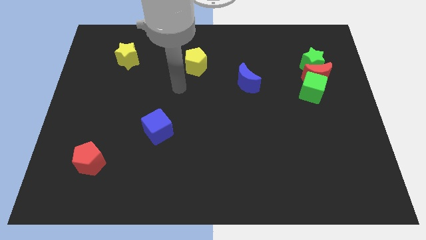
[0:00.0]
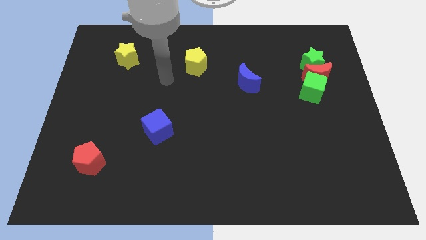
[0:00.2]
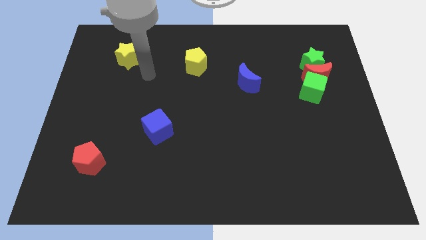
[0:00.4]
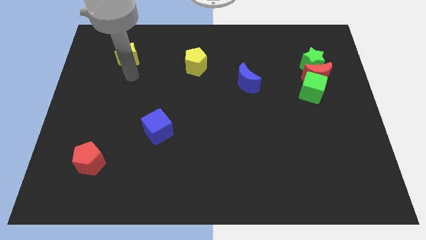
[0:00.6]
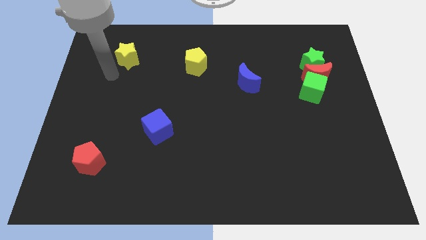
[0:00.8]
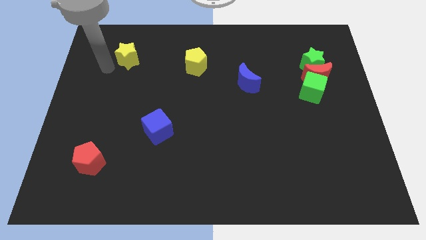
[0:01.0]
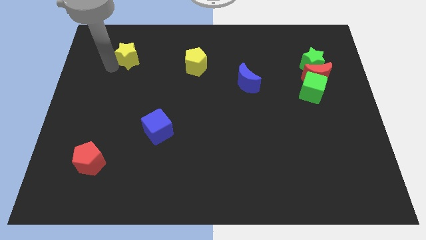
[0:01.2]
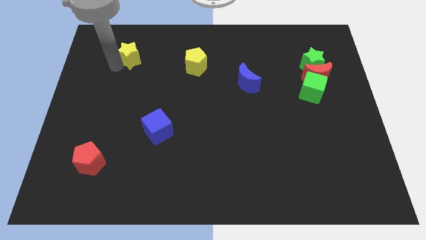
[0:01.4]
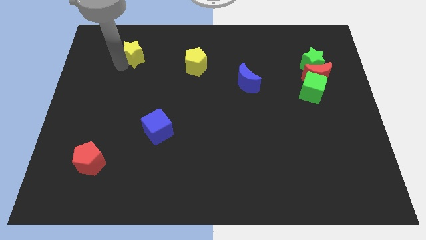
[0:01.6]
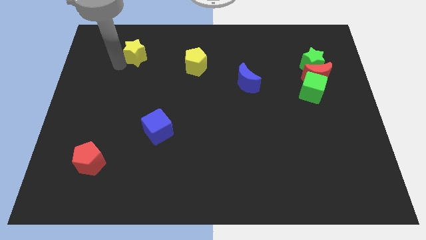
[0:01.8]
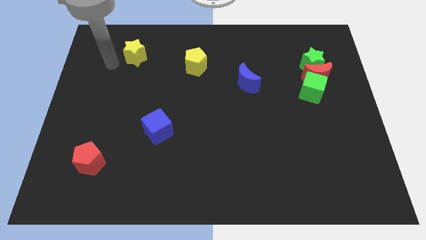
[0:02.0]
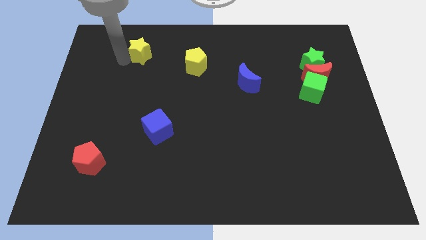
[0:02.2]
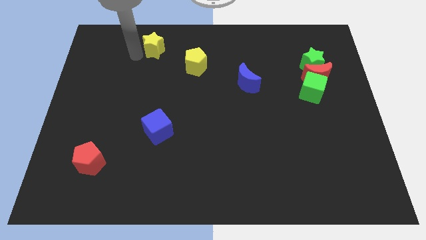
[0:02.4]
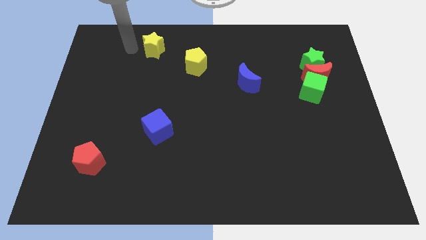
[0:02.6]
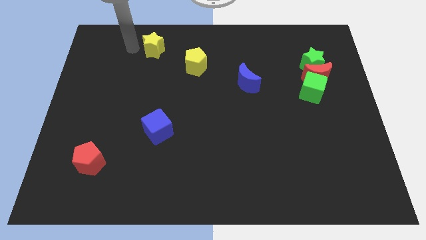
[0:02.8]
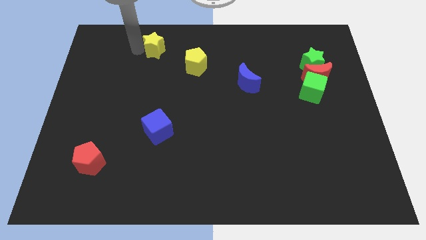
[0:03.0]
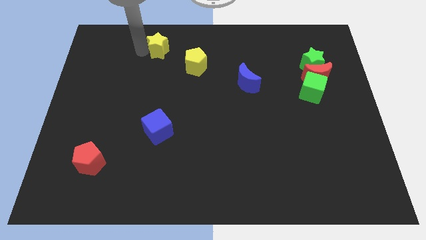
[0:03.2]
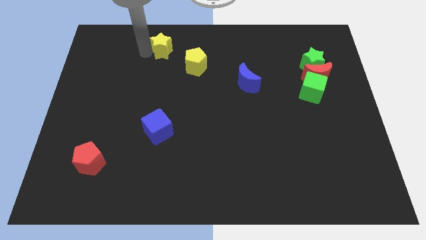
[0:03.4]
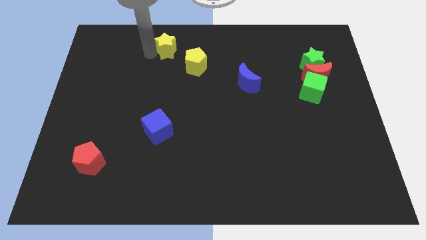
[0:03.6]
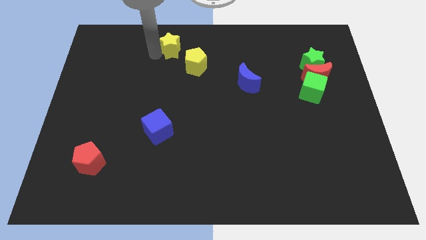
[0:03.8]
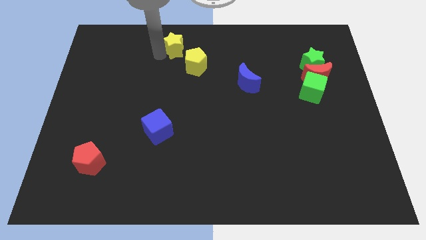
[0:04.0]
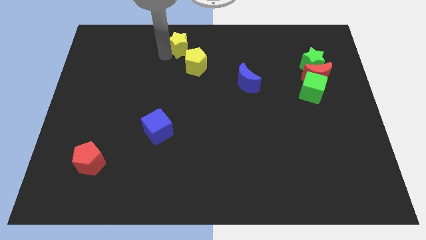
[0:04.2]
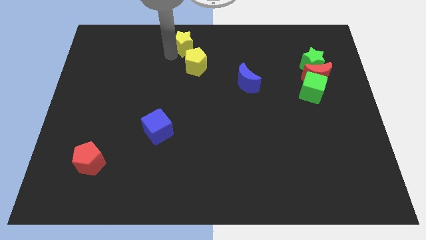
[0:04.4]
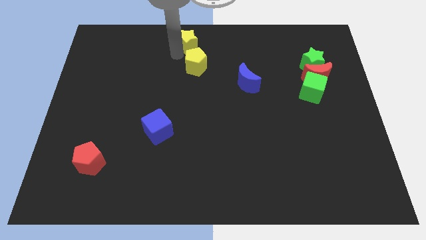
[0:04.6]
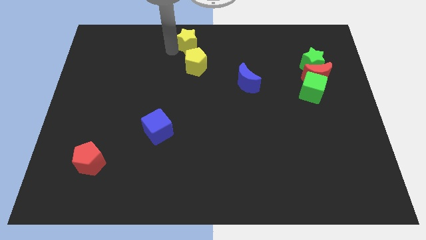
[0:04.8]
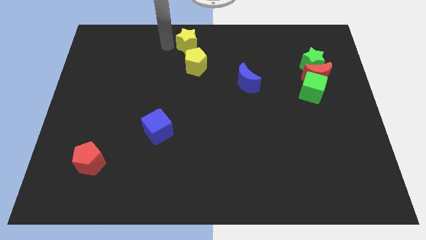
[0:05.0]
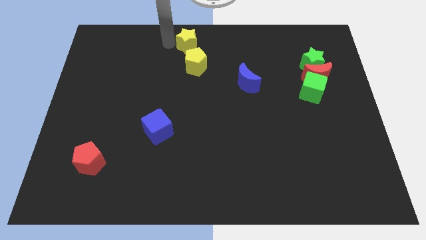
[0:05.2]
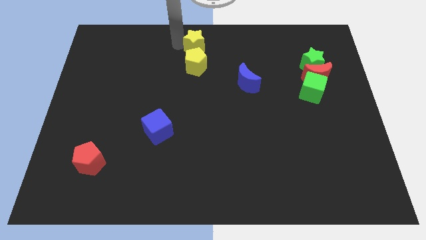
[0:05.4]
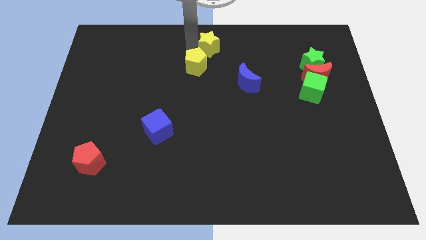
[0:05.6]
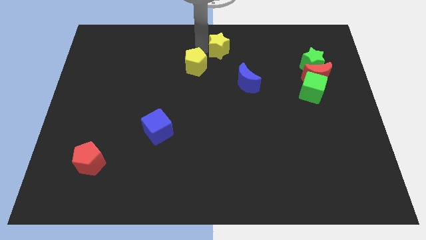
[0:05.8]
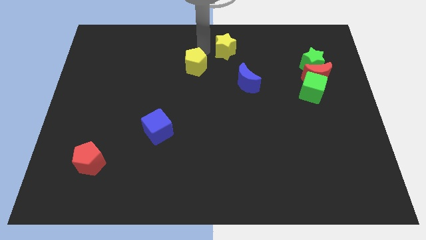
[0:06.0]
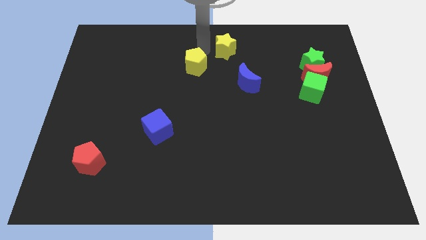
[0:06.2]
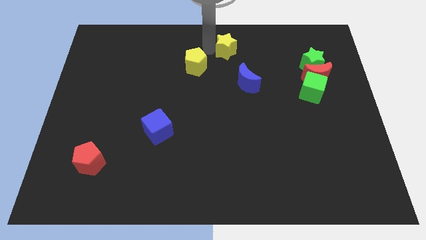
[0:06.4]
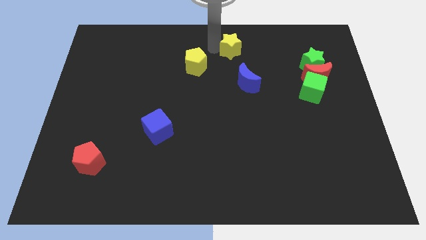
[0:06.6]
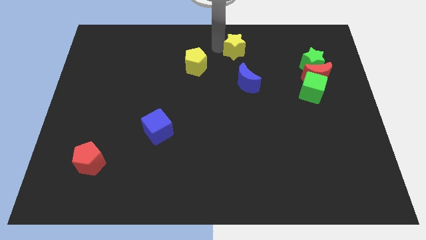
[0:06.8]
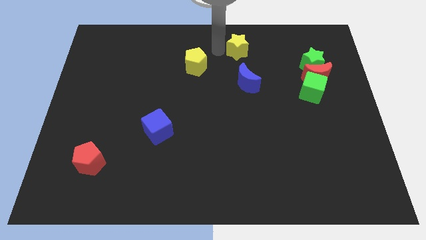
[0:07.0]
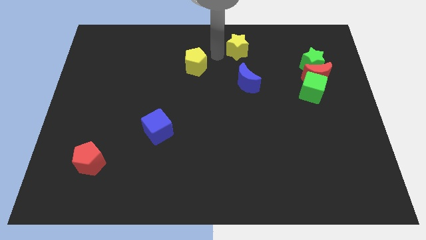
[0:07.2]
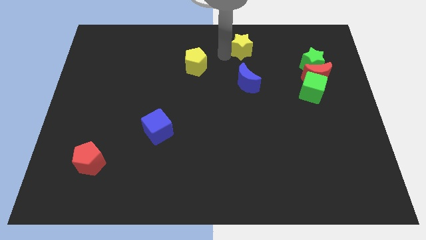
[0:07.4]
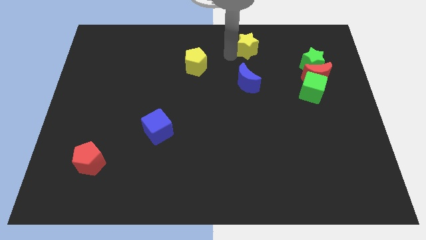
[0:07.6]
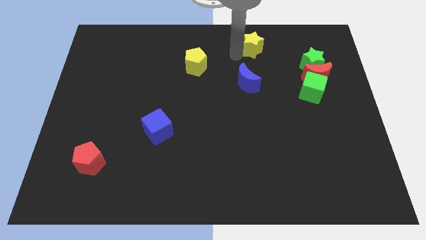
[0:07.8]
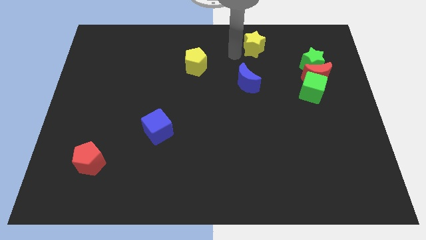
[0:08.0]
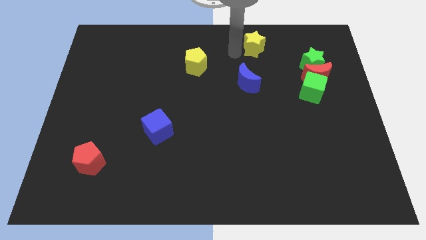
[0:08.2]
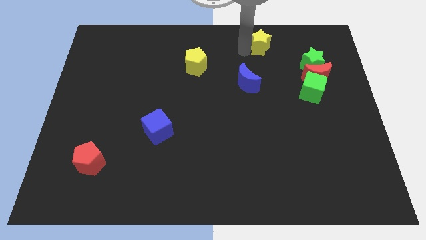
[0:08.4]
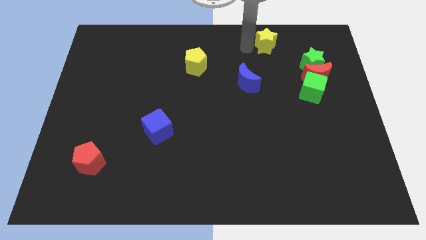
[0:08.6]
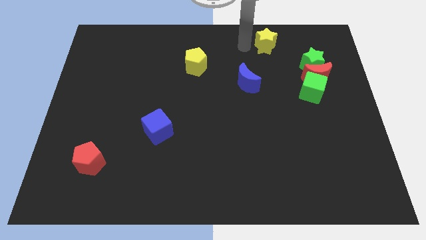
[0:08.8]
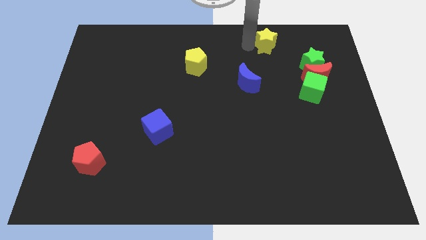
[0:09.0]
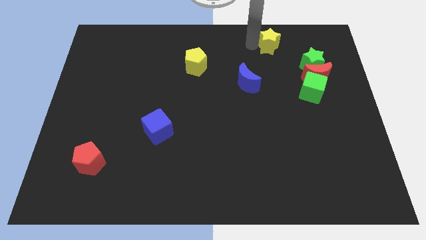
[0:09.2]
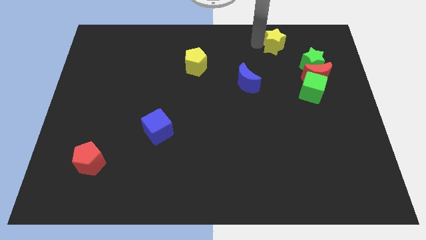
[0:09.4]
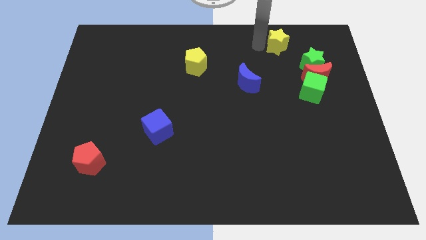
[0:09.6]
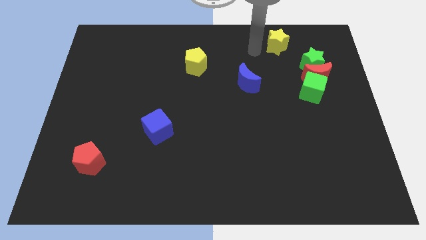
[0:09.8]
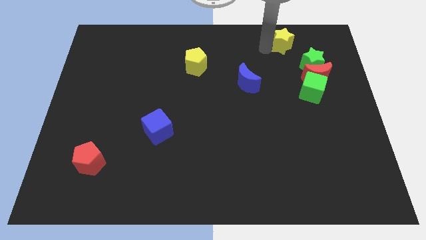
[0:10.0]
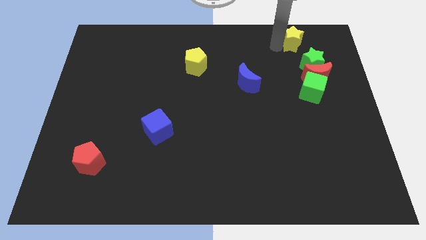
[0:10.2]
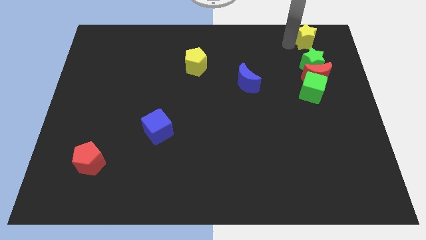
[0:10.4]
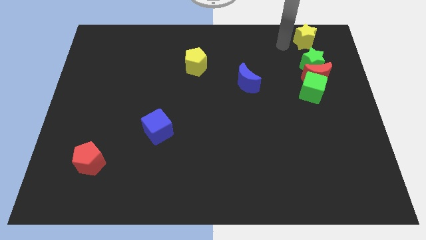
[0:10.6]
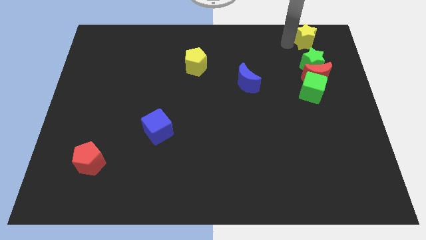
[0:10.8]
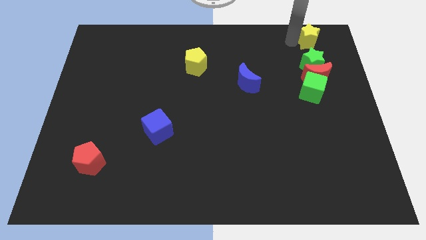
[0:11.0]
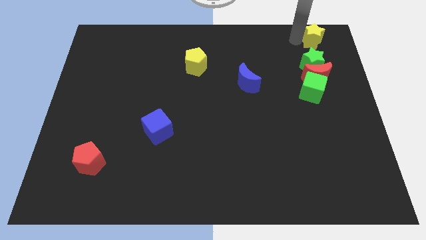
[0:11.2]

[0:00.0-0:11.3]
put the yellow star to the top right of the board

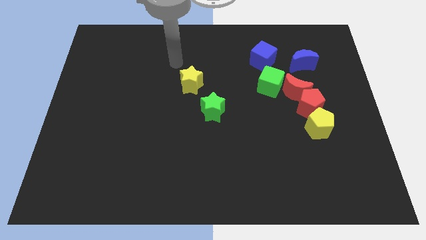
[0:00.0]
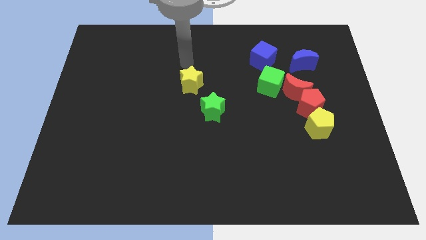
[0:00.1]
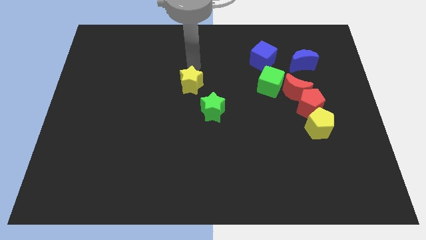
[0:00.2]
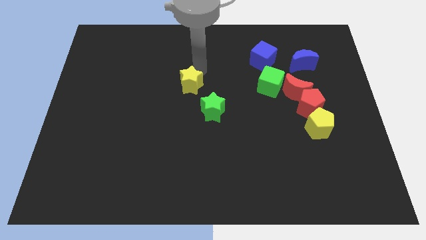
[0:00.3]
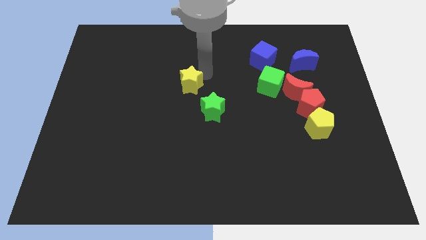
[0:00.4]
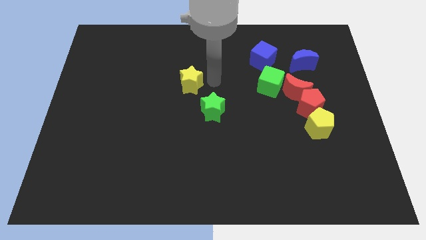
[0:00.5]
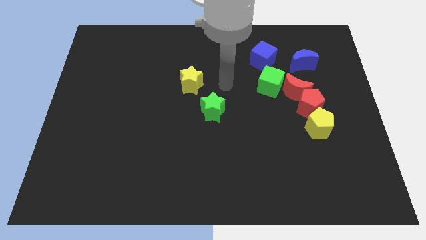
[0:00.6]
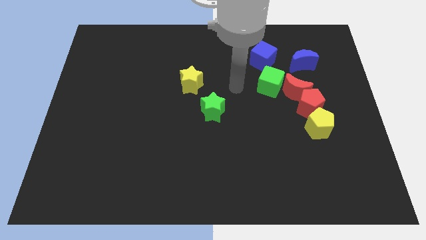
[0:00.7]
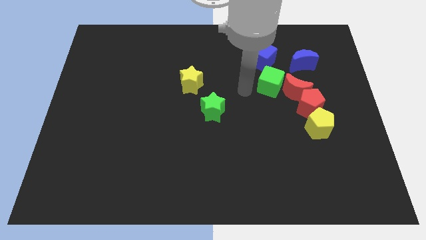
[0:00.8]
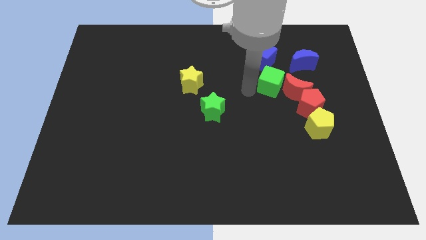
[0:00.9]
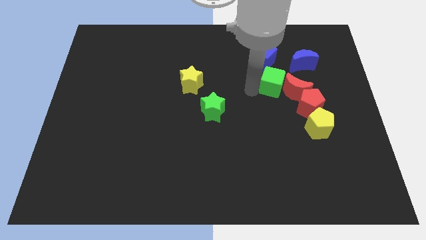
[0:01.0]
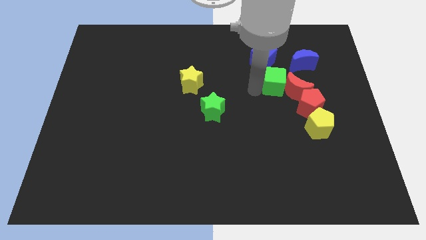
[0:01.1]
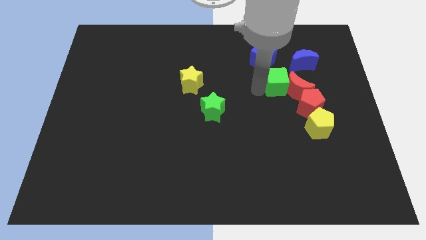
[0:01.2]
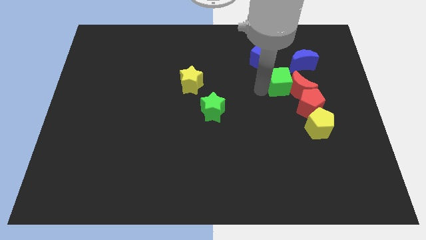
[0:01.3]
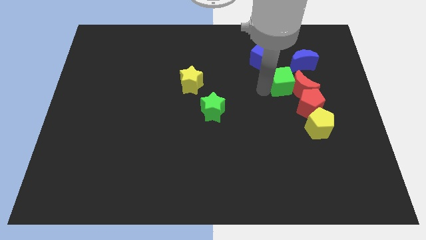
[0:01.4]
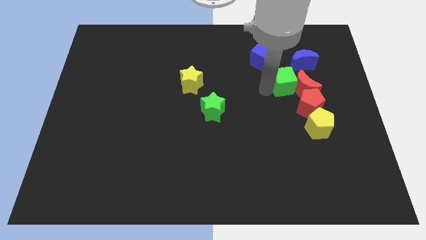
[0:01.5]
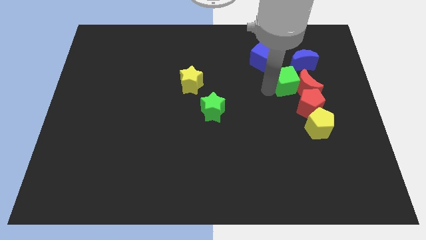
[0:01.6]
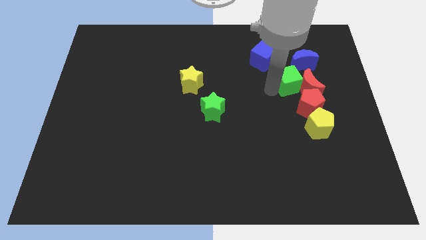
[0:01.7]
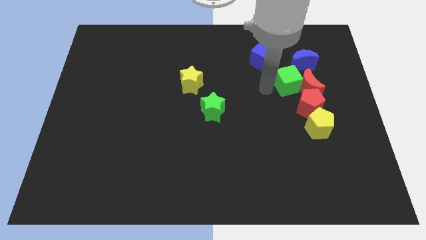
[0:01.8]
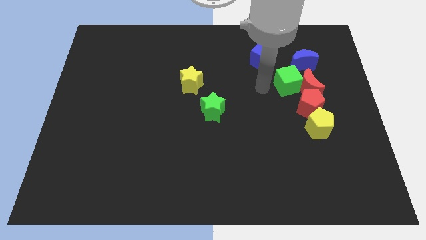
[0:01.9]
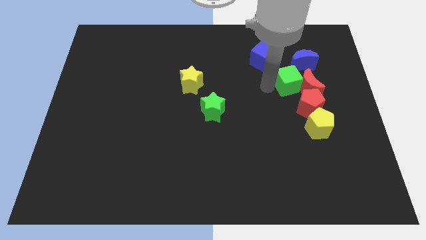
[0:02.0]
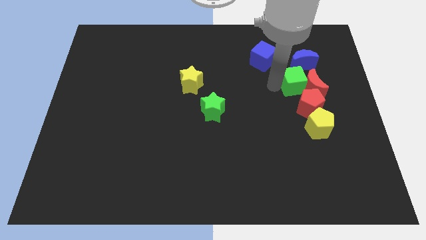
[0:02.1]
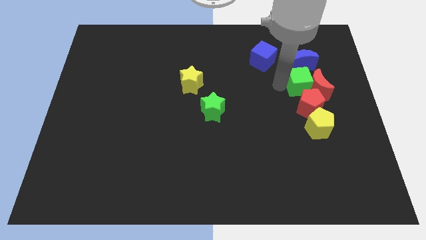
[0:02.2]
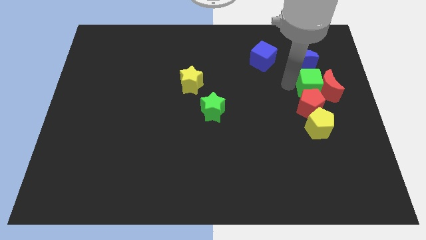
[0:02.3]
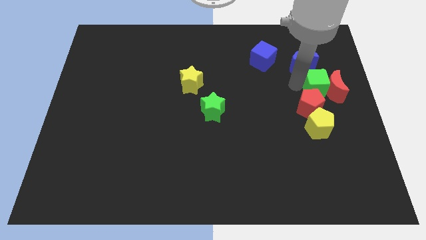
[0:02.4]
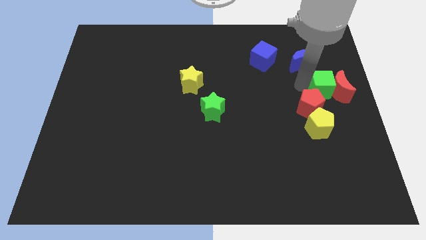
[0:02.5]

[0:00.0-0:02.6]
put the green cube to the right side of the board

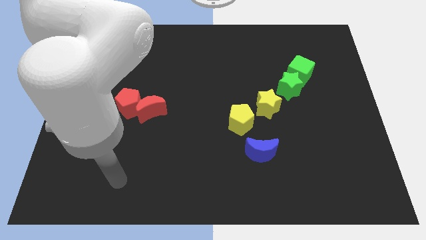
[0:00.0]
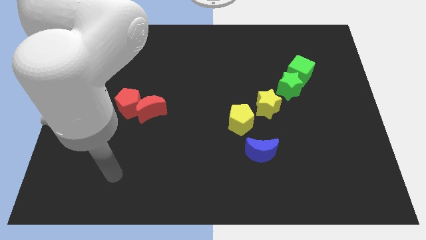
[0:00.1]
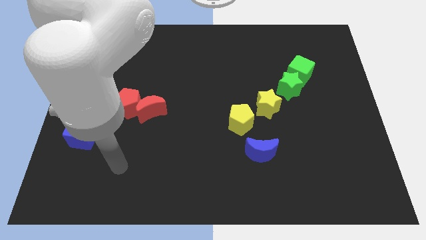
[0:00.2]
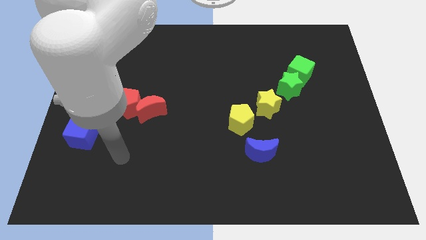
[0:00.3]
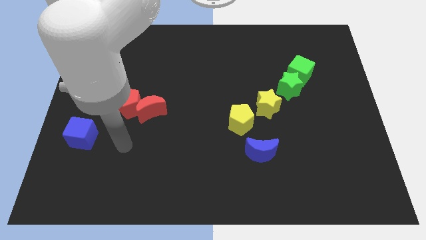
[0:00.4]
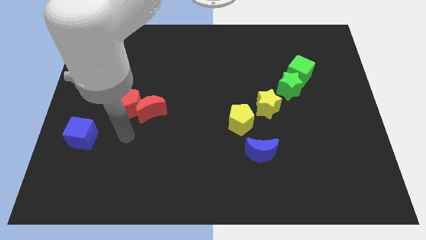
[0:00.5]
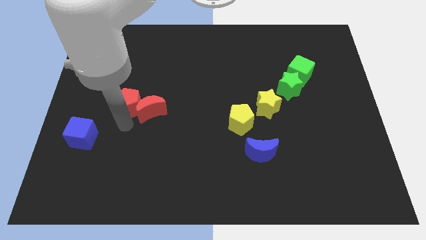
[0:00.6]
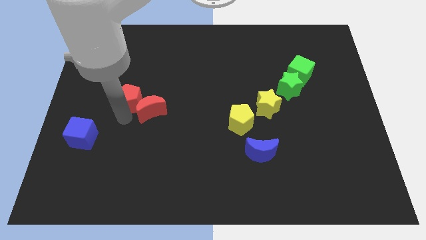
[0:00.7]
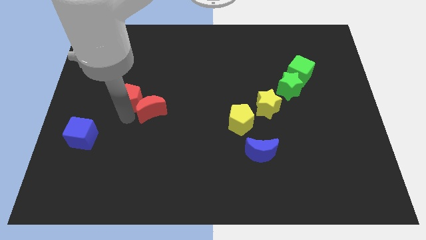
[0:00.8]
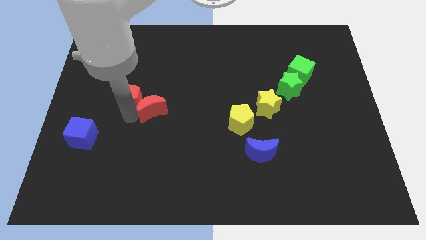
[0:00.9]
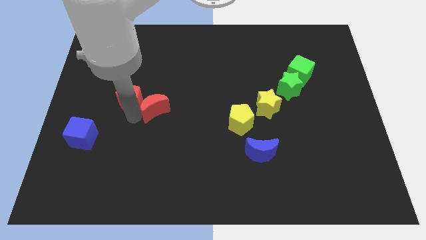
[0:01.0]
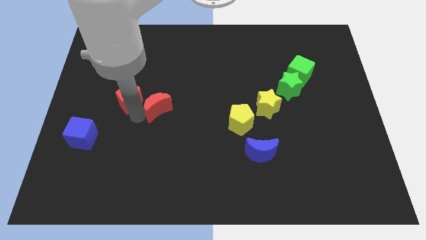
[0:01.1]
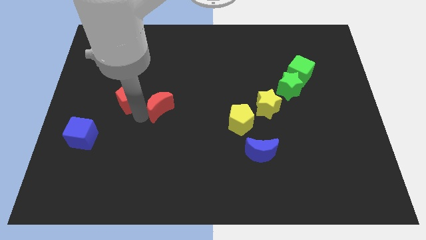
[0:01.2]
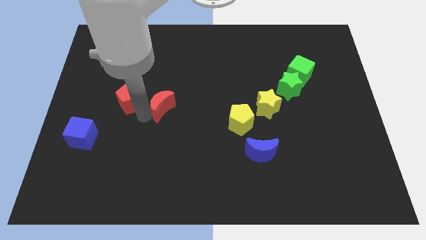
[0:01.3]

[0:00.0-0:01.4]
move the red moon to the center
